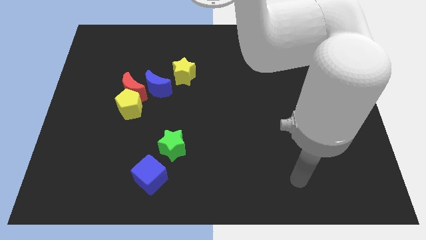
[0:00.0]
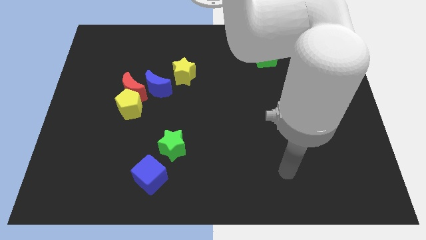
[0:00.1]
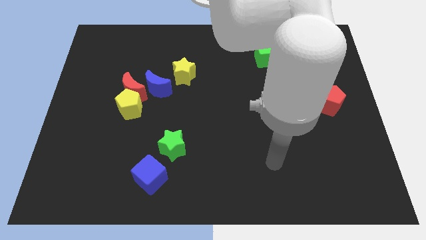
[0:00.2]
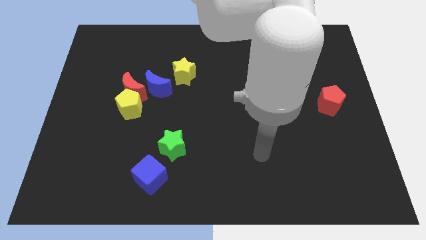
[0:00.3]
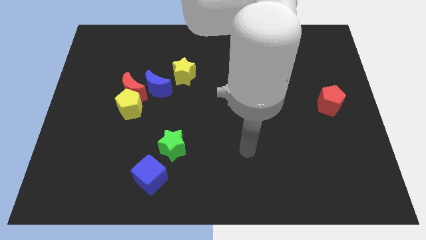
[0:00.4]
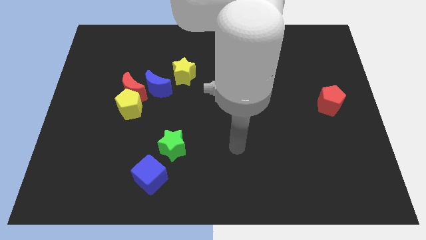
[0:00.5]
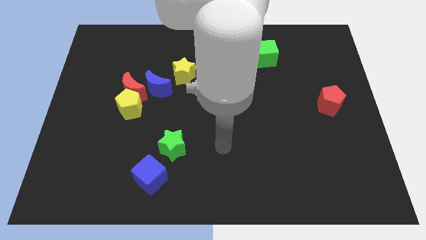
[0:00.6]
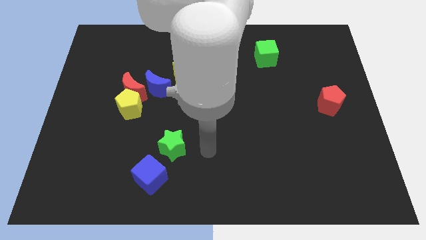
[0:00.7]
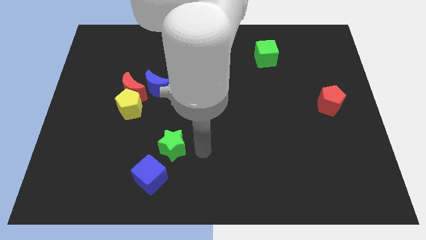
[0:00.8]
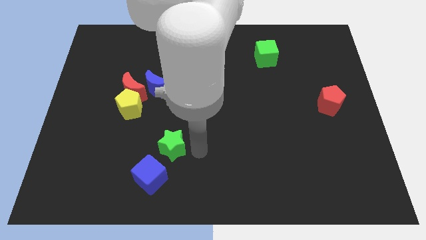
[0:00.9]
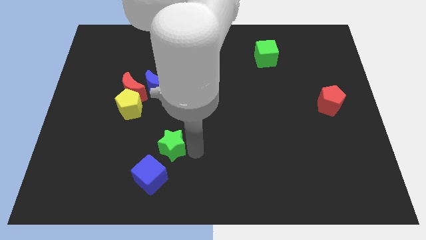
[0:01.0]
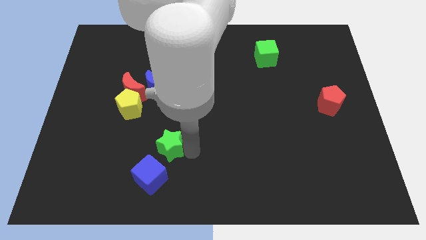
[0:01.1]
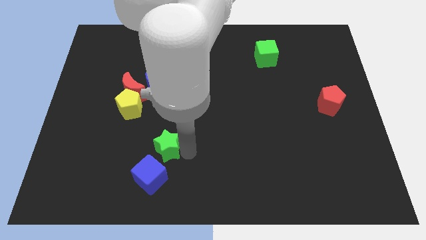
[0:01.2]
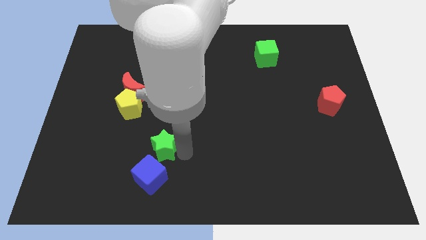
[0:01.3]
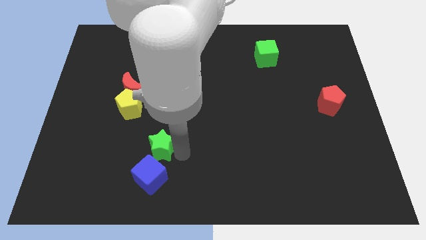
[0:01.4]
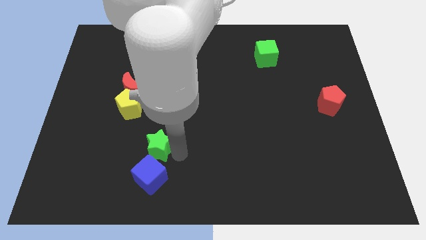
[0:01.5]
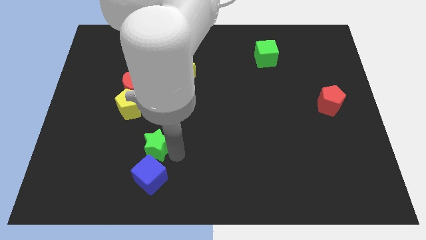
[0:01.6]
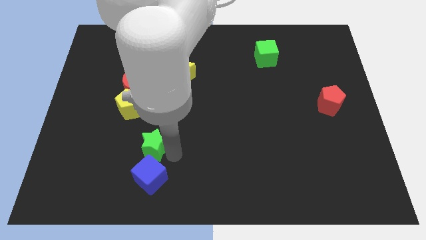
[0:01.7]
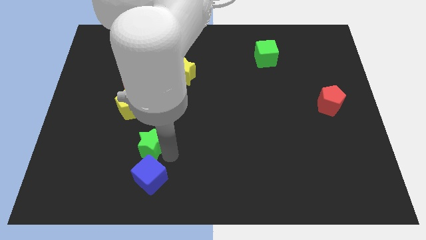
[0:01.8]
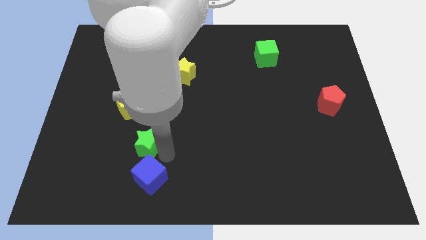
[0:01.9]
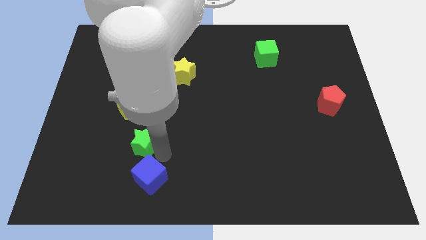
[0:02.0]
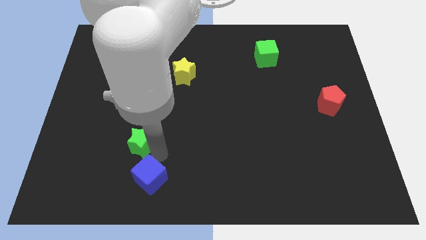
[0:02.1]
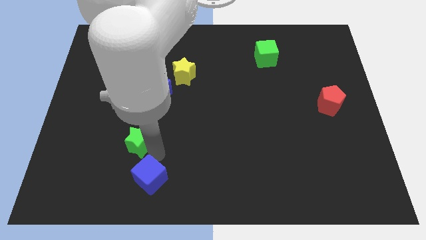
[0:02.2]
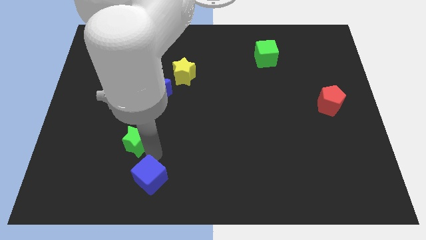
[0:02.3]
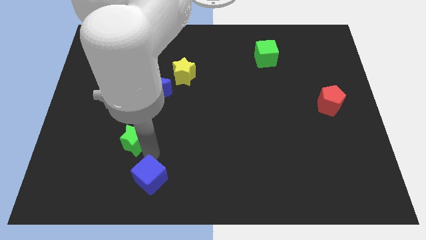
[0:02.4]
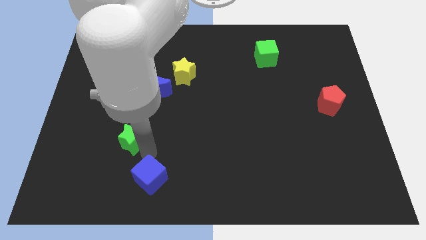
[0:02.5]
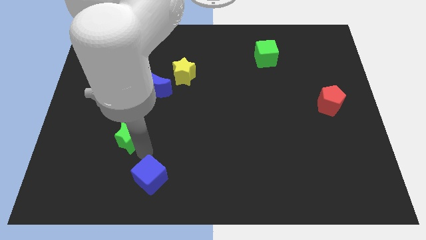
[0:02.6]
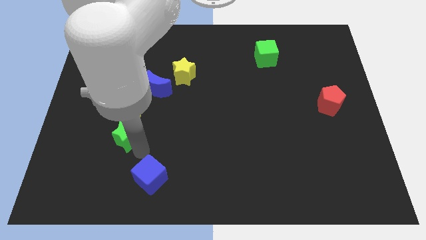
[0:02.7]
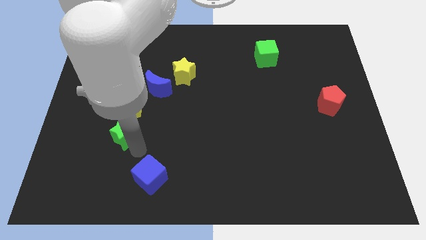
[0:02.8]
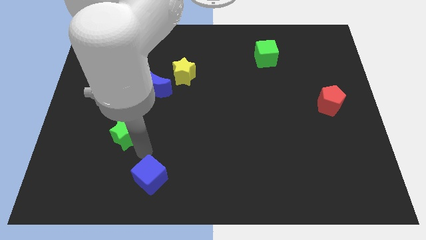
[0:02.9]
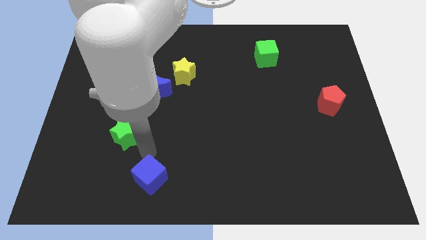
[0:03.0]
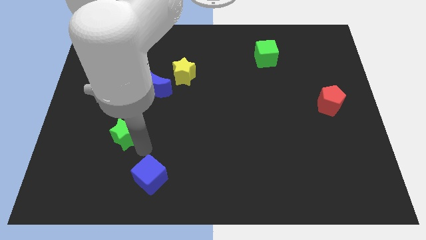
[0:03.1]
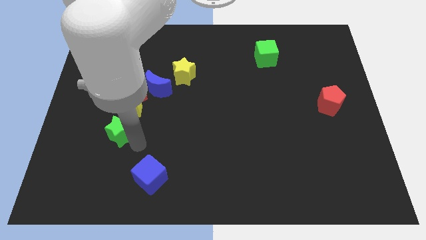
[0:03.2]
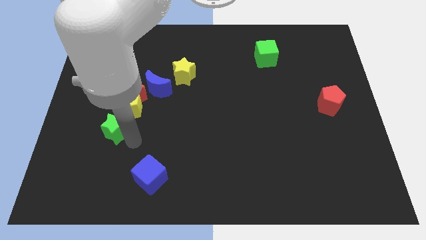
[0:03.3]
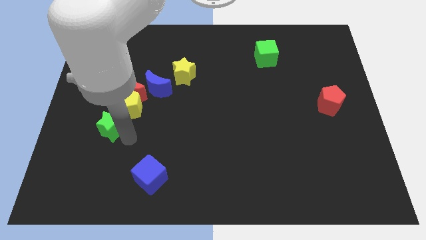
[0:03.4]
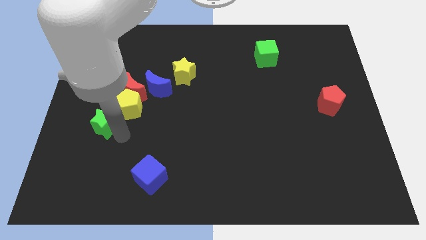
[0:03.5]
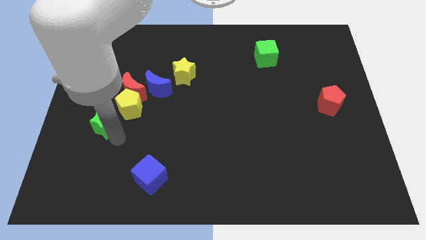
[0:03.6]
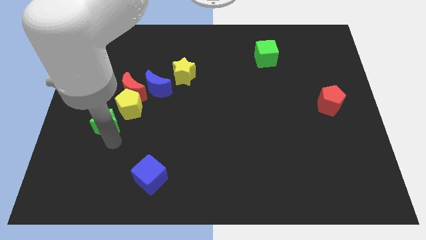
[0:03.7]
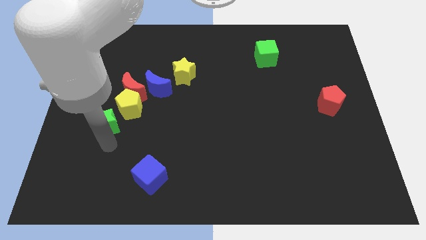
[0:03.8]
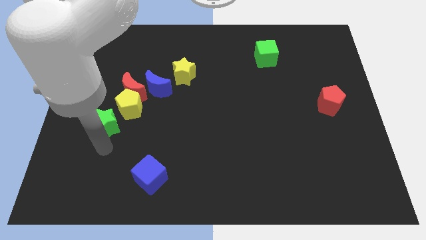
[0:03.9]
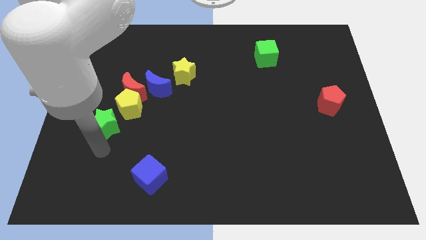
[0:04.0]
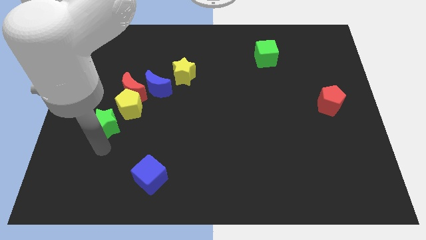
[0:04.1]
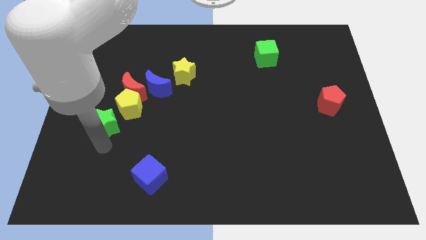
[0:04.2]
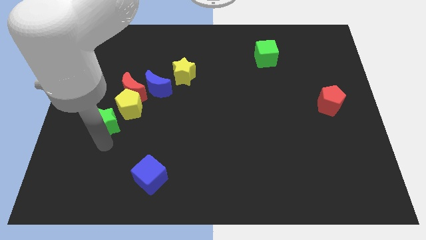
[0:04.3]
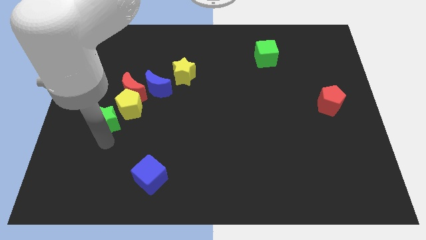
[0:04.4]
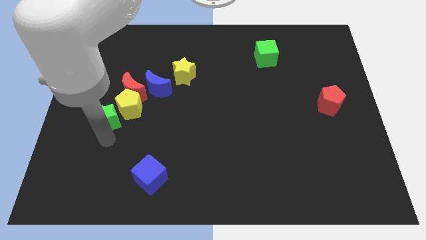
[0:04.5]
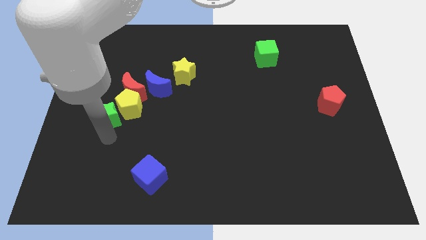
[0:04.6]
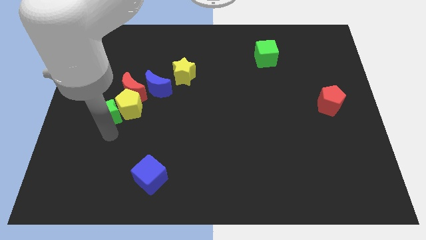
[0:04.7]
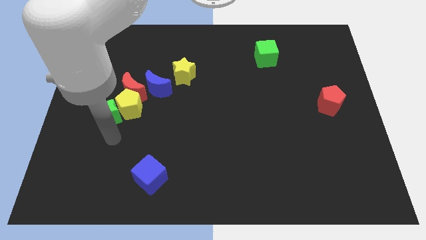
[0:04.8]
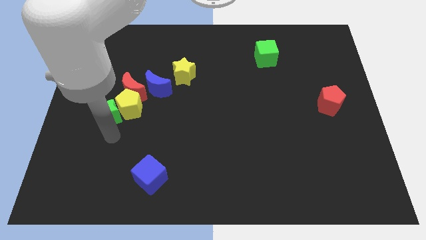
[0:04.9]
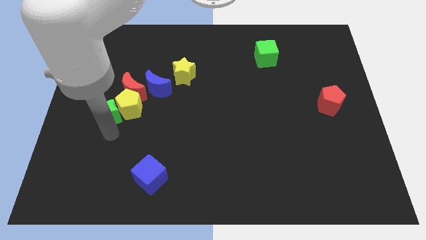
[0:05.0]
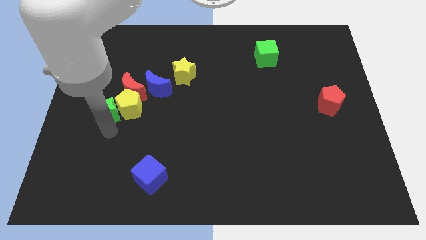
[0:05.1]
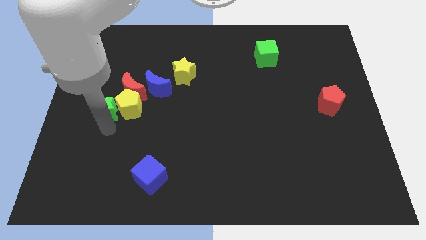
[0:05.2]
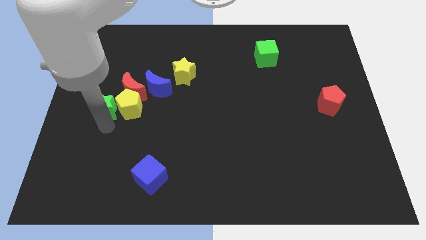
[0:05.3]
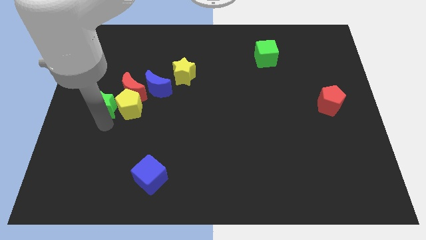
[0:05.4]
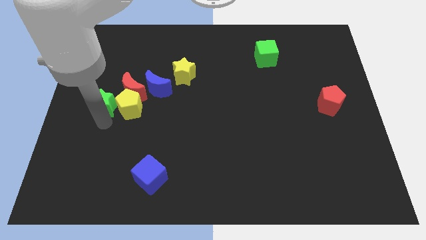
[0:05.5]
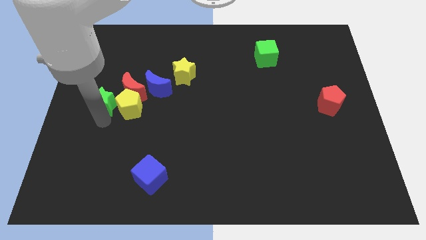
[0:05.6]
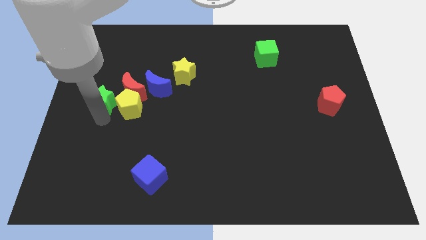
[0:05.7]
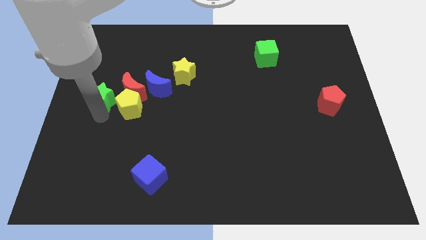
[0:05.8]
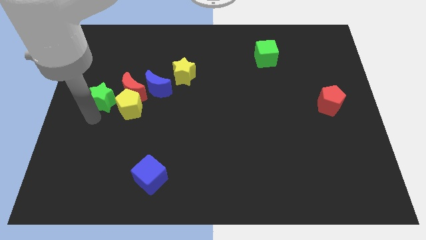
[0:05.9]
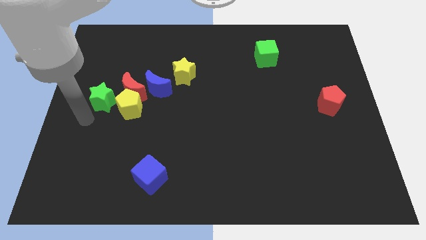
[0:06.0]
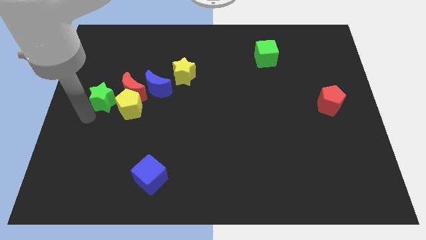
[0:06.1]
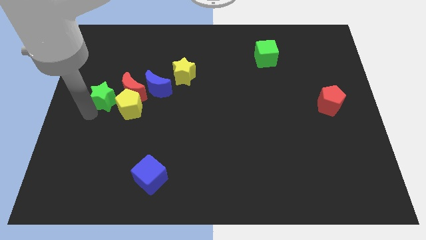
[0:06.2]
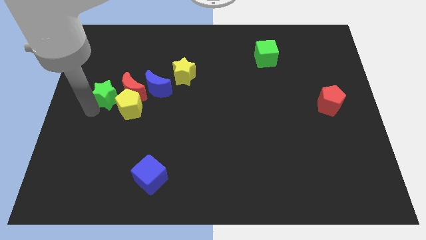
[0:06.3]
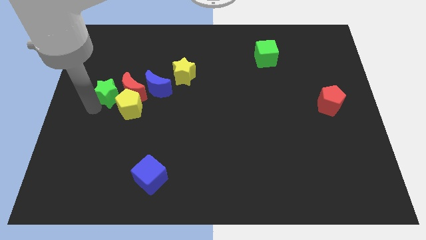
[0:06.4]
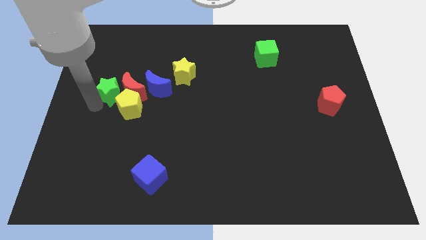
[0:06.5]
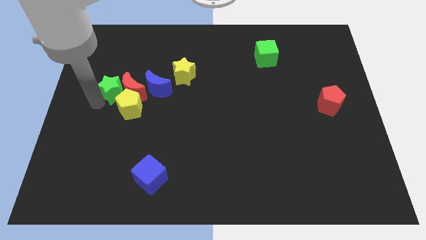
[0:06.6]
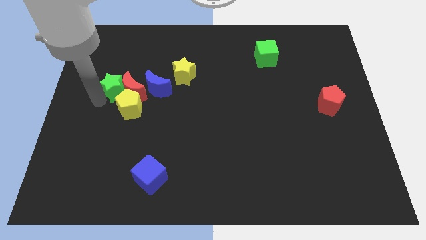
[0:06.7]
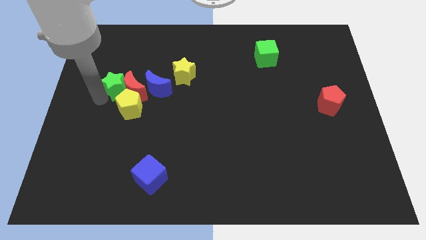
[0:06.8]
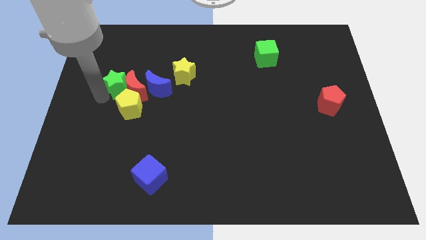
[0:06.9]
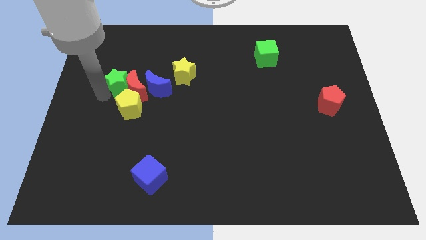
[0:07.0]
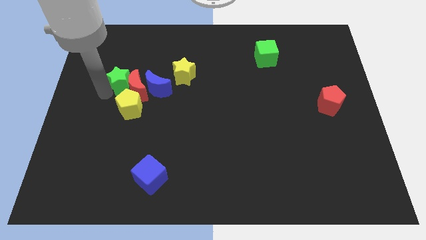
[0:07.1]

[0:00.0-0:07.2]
push the green star to the left of the yellow star
